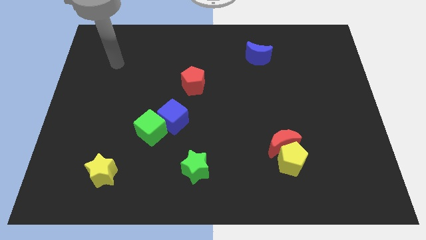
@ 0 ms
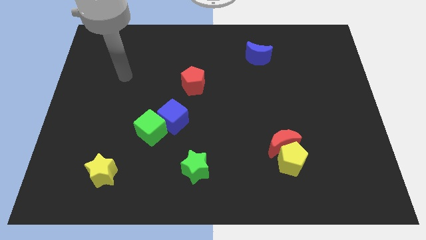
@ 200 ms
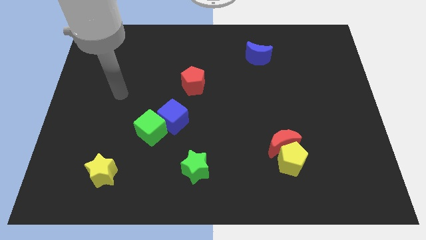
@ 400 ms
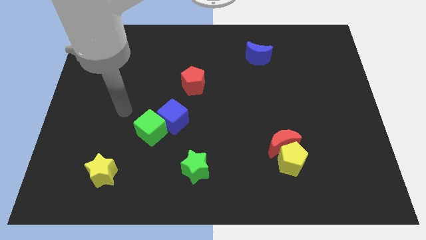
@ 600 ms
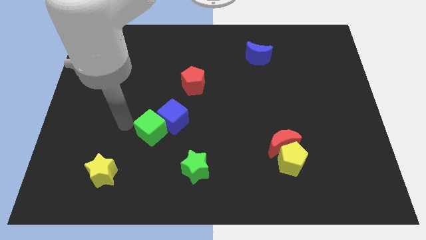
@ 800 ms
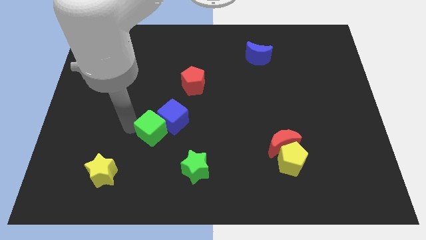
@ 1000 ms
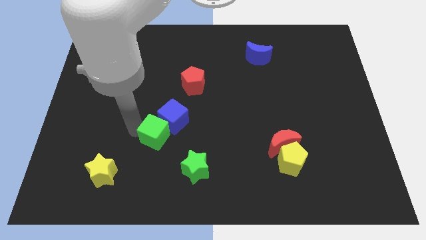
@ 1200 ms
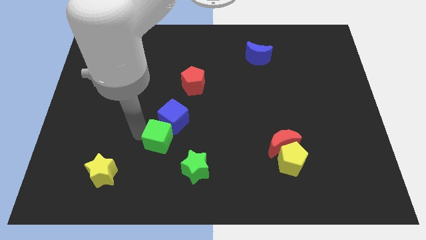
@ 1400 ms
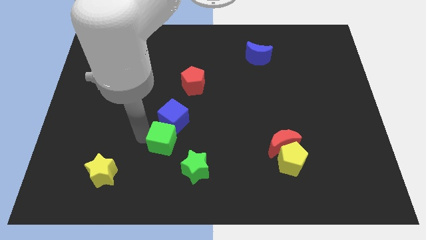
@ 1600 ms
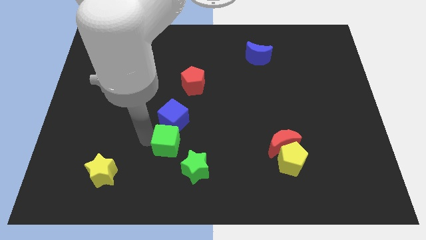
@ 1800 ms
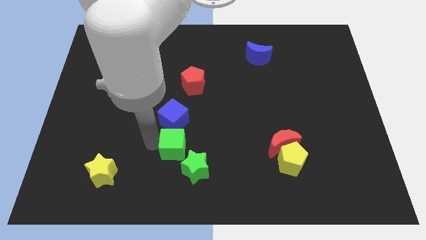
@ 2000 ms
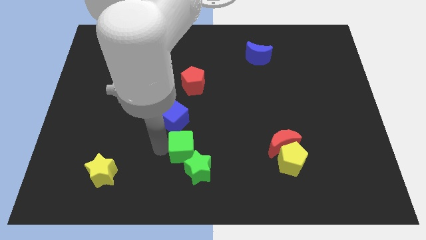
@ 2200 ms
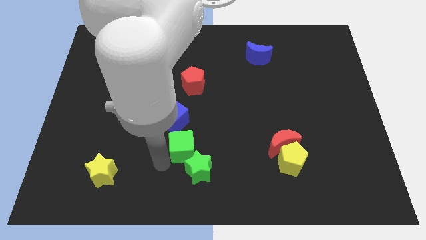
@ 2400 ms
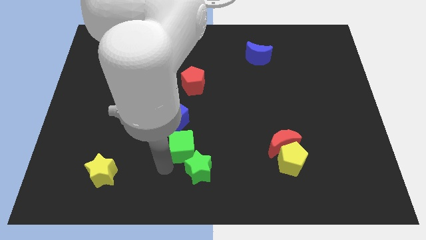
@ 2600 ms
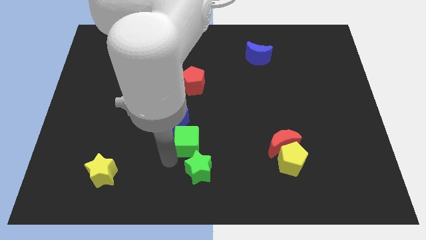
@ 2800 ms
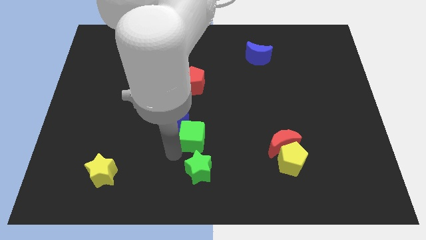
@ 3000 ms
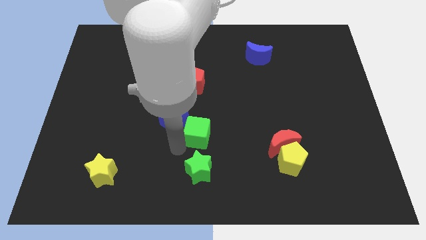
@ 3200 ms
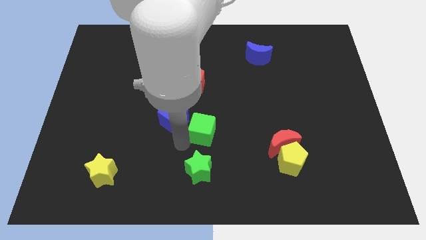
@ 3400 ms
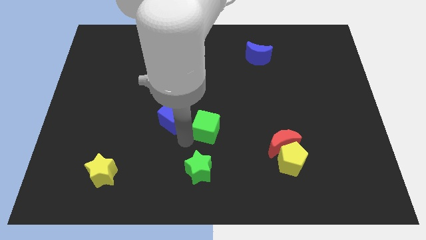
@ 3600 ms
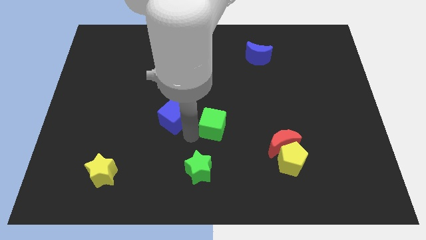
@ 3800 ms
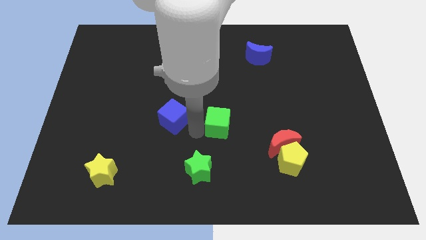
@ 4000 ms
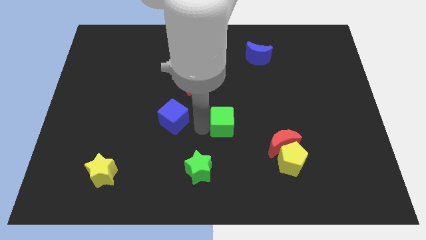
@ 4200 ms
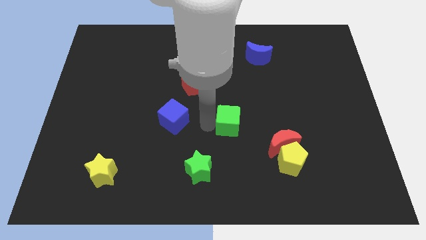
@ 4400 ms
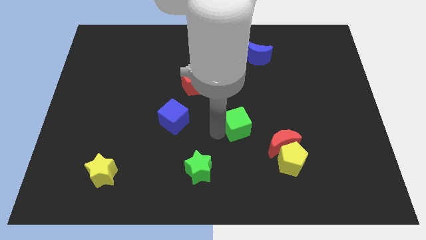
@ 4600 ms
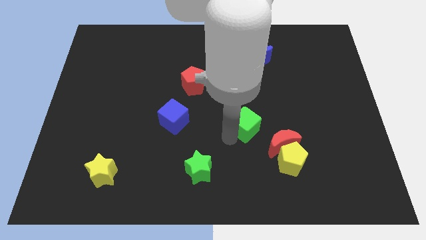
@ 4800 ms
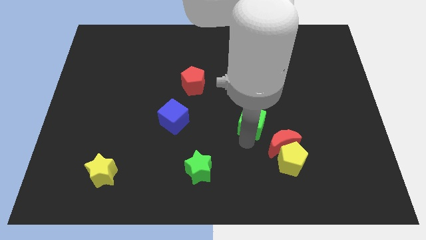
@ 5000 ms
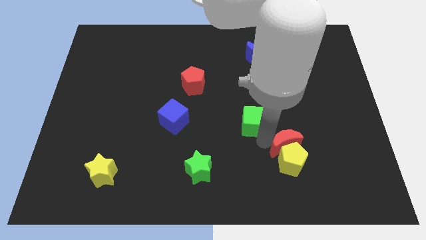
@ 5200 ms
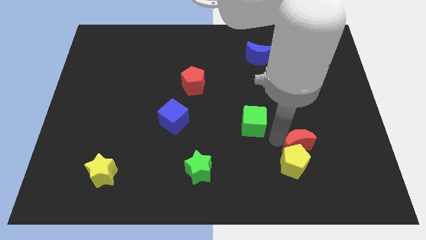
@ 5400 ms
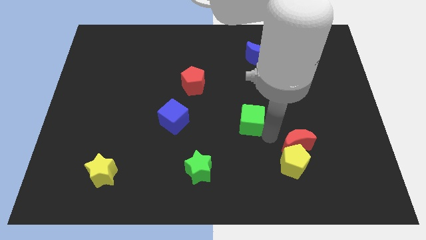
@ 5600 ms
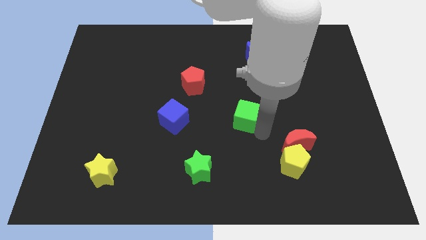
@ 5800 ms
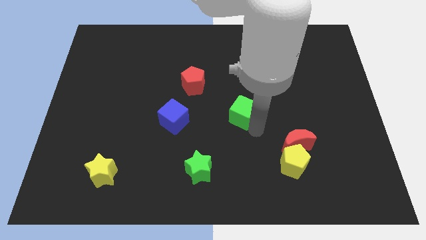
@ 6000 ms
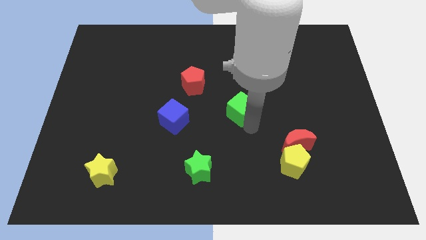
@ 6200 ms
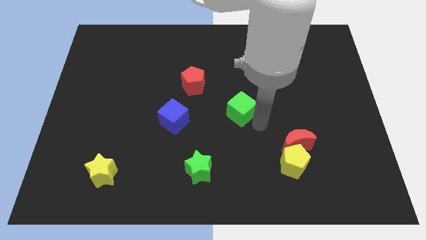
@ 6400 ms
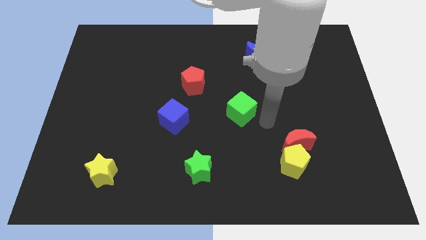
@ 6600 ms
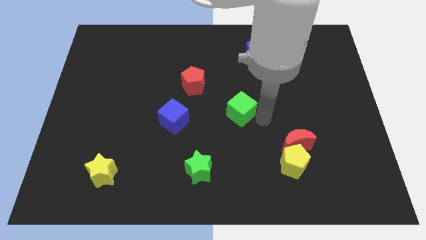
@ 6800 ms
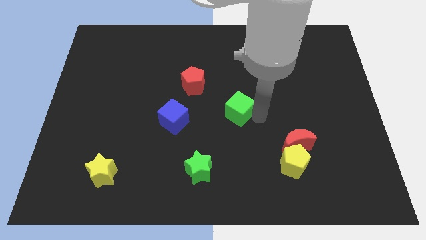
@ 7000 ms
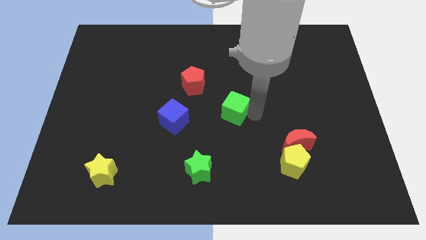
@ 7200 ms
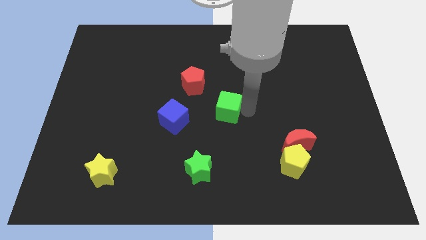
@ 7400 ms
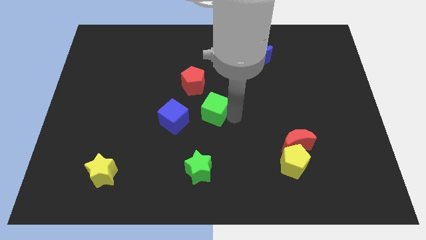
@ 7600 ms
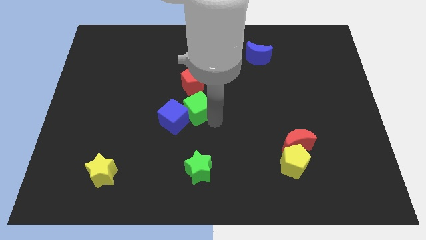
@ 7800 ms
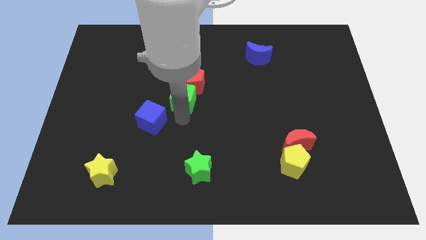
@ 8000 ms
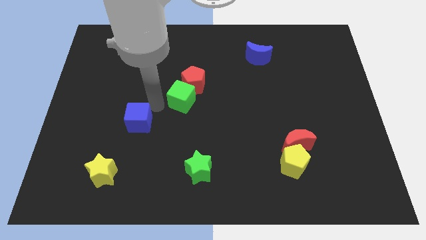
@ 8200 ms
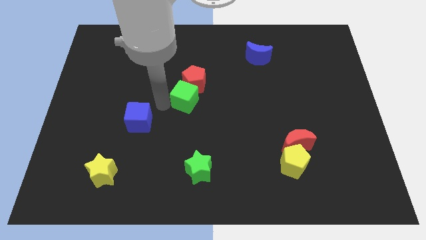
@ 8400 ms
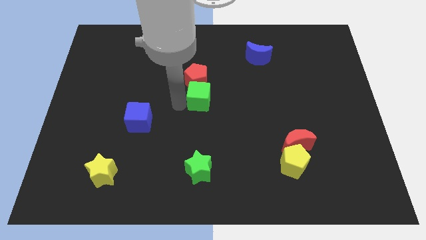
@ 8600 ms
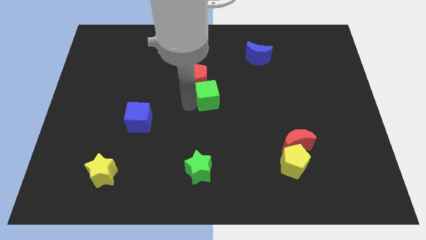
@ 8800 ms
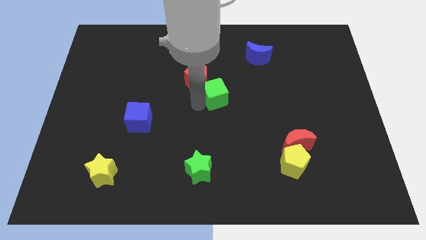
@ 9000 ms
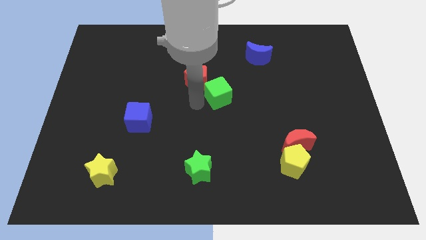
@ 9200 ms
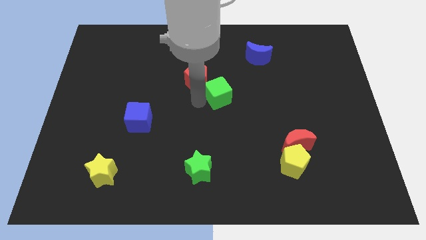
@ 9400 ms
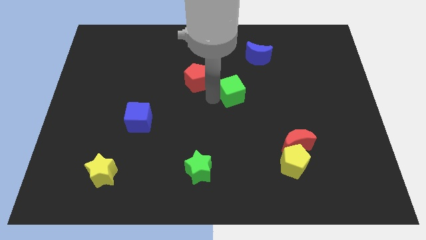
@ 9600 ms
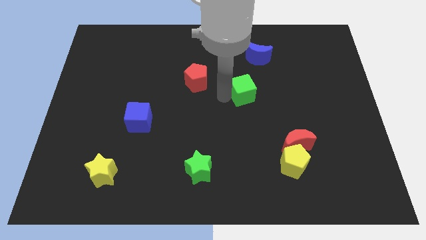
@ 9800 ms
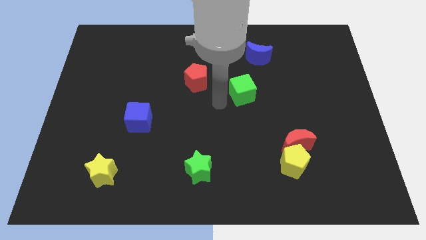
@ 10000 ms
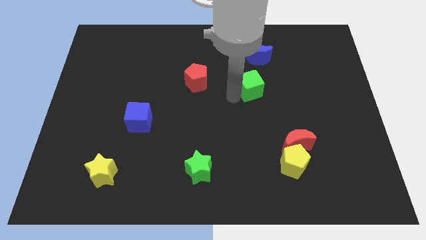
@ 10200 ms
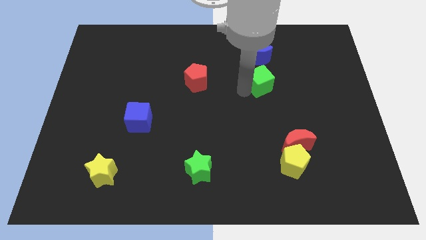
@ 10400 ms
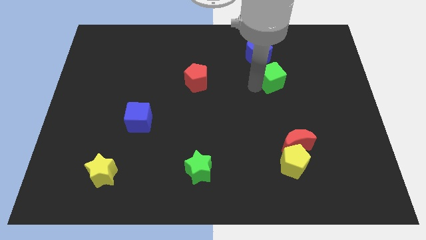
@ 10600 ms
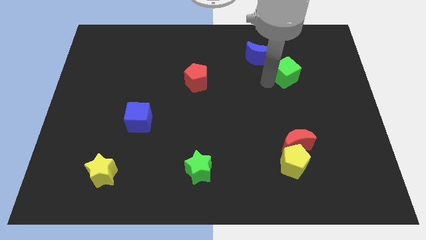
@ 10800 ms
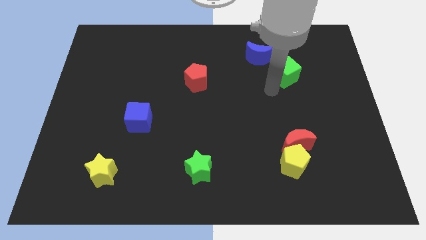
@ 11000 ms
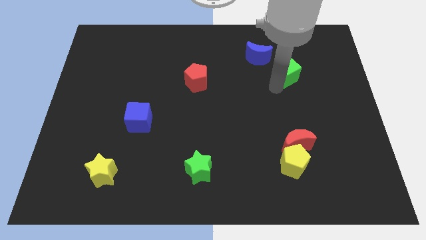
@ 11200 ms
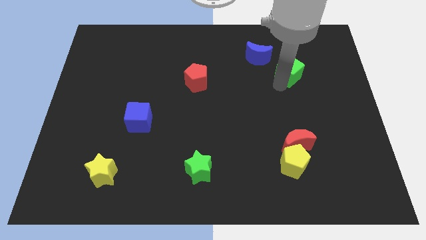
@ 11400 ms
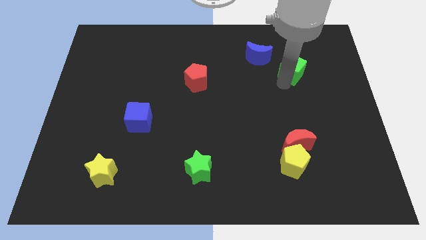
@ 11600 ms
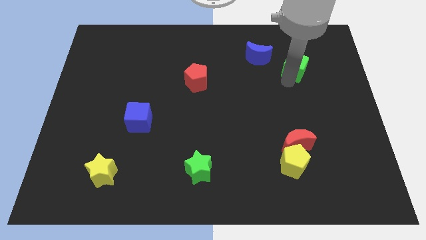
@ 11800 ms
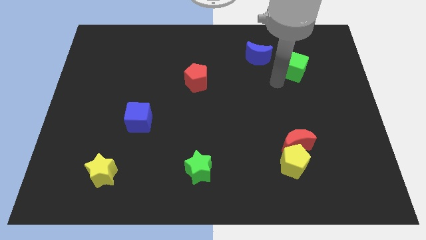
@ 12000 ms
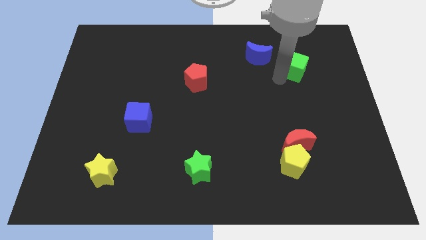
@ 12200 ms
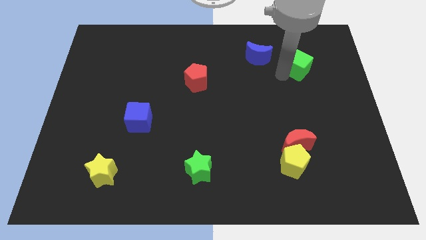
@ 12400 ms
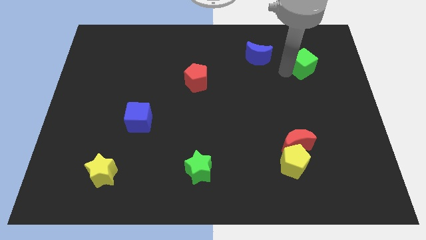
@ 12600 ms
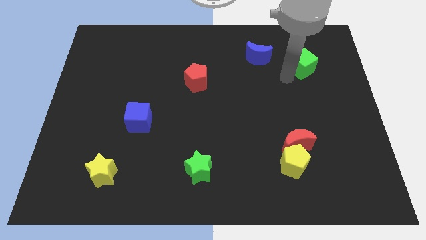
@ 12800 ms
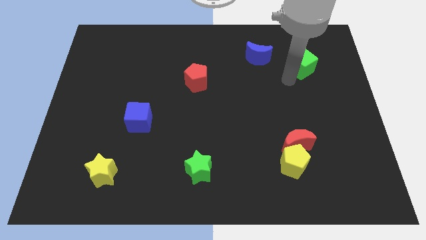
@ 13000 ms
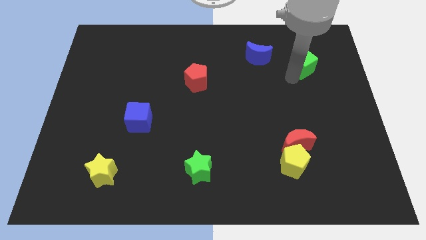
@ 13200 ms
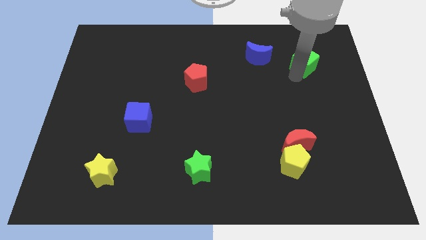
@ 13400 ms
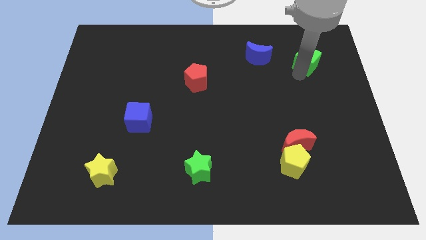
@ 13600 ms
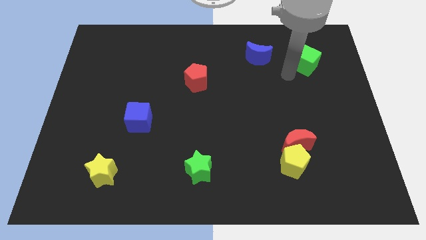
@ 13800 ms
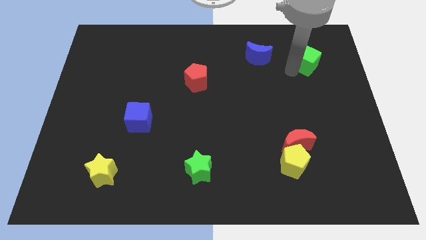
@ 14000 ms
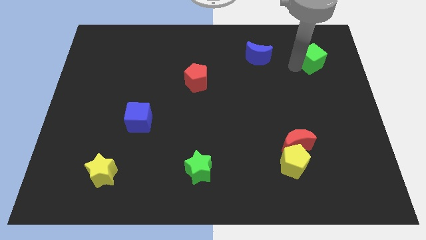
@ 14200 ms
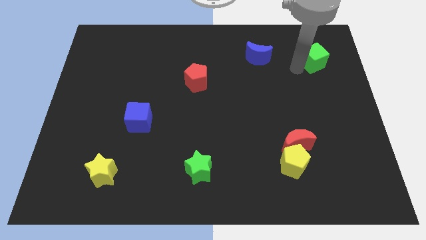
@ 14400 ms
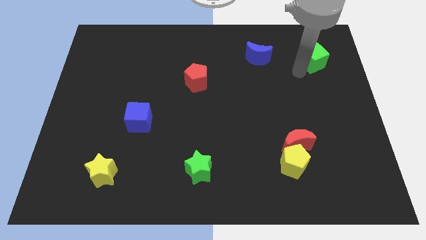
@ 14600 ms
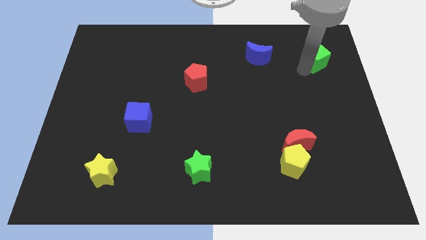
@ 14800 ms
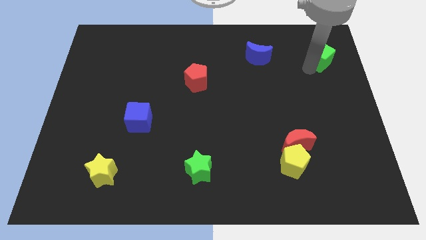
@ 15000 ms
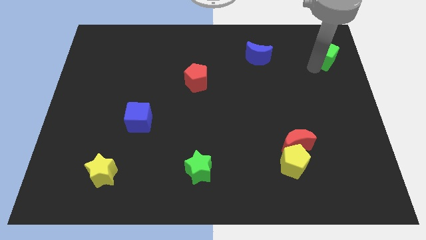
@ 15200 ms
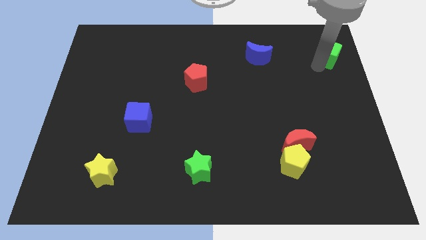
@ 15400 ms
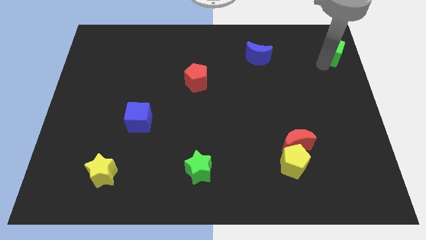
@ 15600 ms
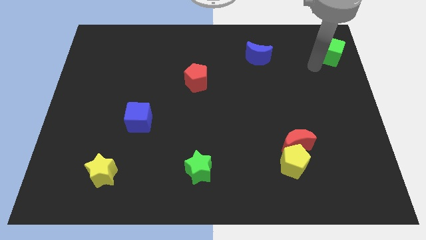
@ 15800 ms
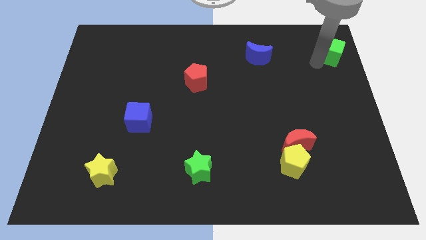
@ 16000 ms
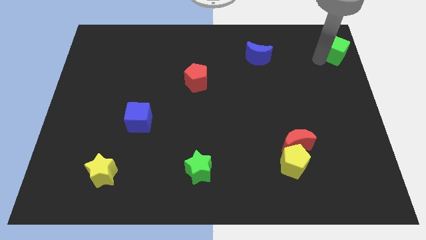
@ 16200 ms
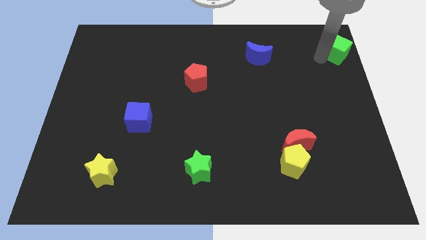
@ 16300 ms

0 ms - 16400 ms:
put the green cube to the top right
